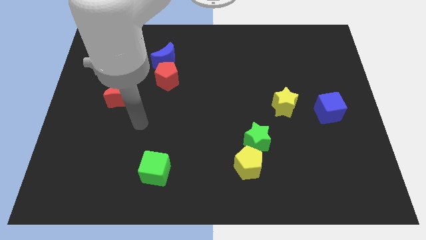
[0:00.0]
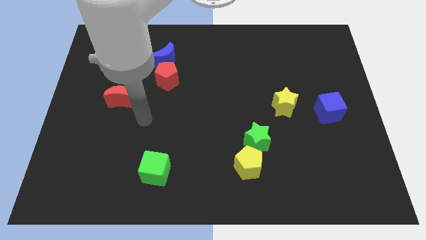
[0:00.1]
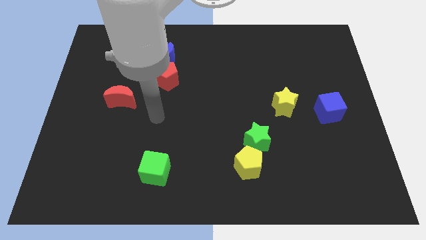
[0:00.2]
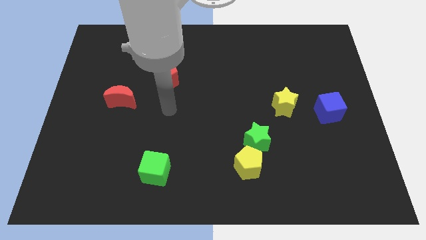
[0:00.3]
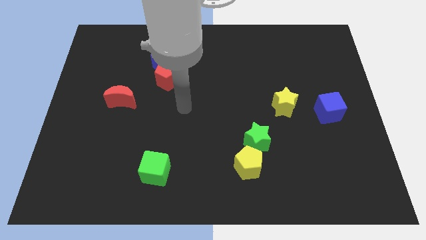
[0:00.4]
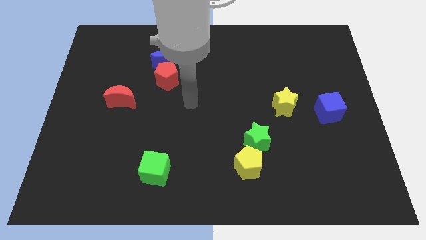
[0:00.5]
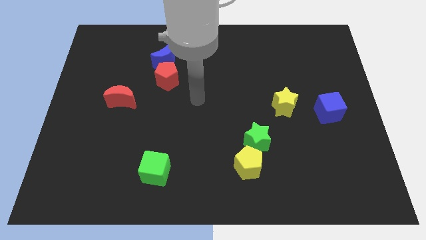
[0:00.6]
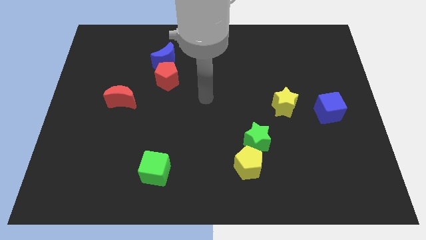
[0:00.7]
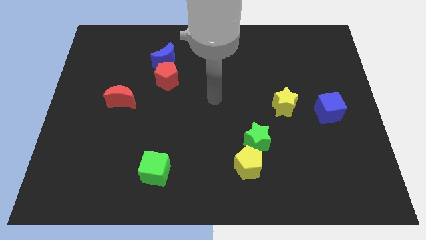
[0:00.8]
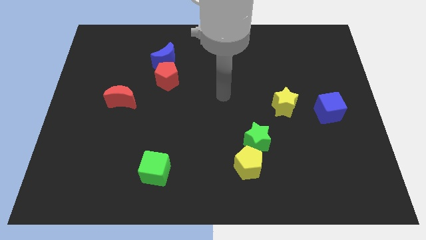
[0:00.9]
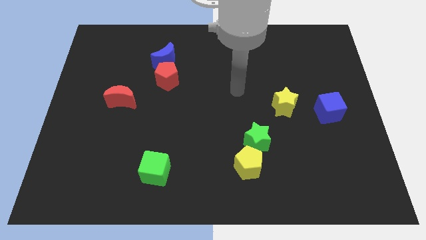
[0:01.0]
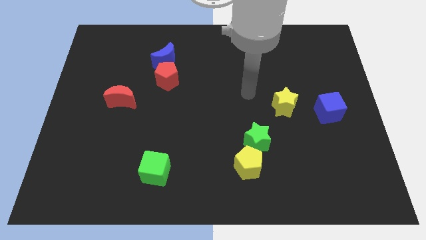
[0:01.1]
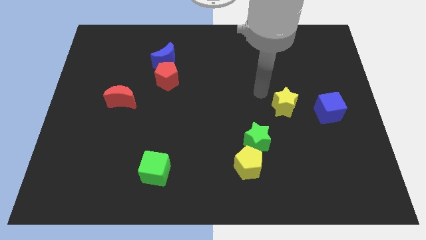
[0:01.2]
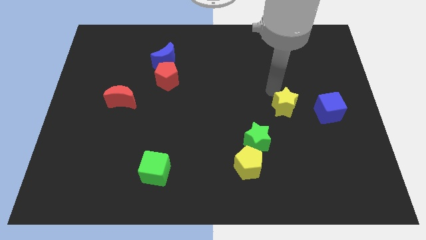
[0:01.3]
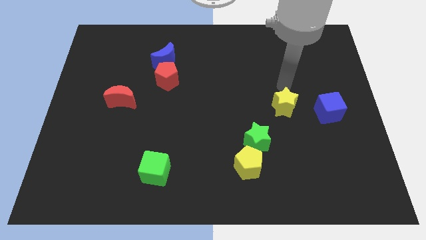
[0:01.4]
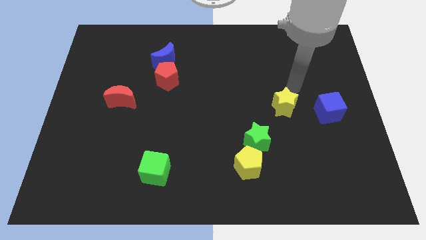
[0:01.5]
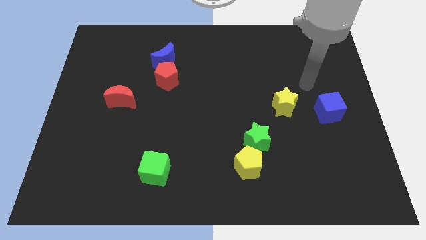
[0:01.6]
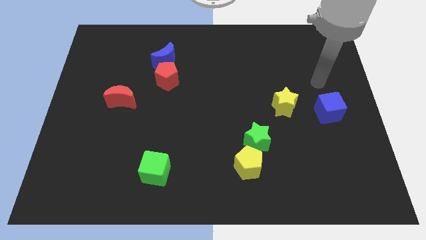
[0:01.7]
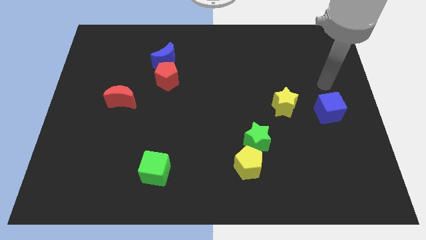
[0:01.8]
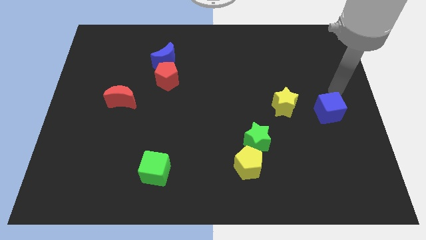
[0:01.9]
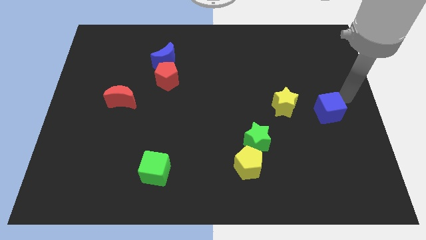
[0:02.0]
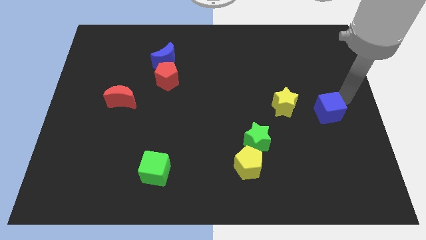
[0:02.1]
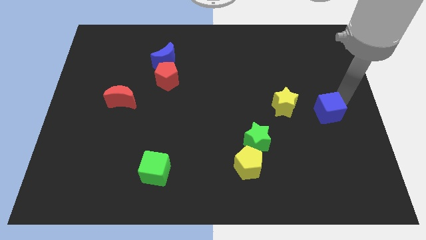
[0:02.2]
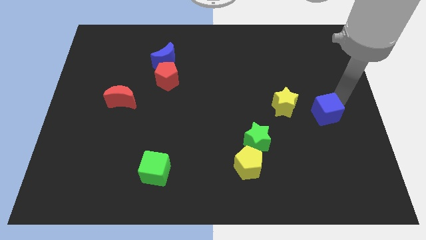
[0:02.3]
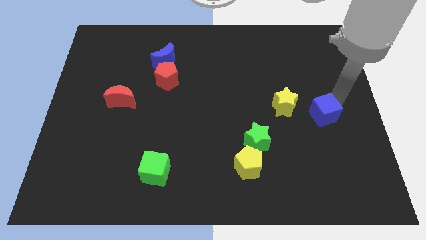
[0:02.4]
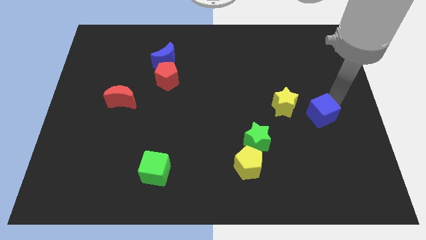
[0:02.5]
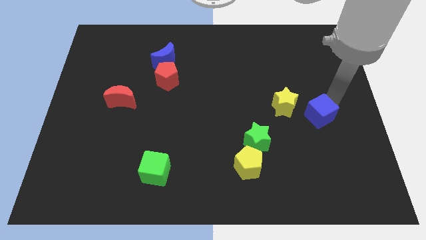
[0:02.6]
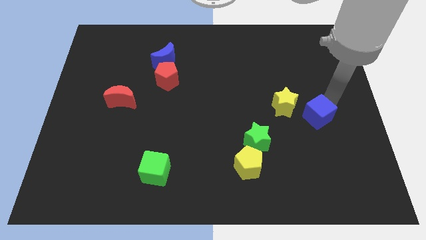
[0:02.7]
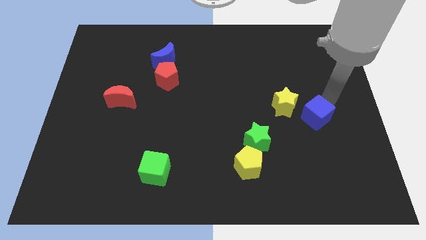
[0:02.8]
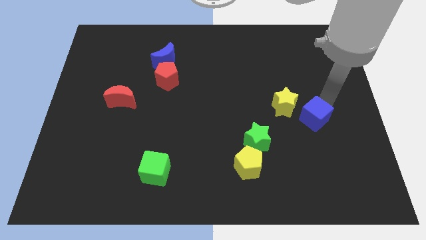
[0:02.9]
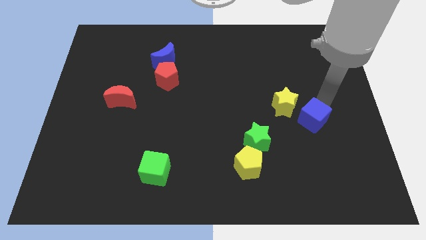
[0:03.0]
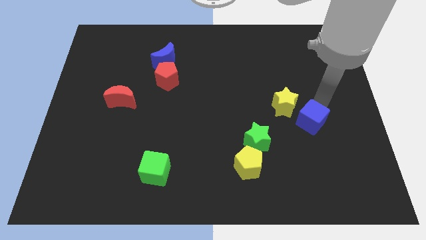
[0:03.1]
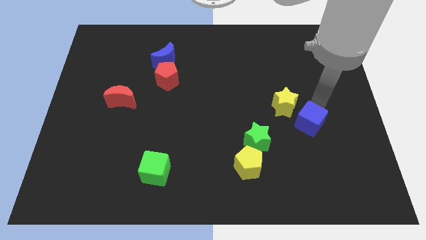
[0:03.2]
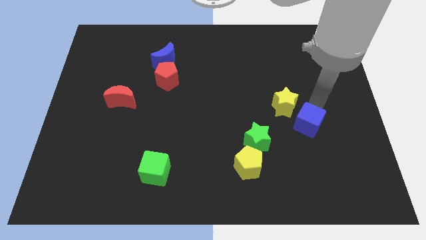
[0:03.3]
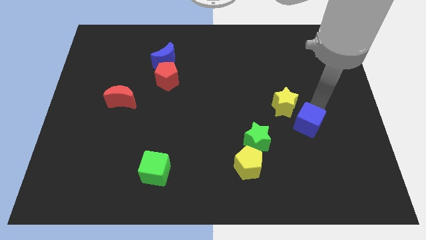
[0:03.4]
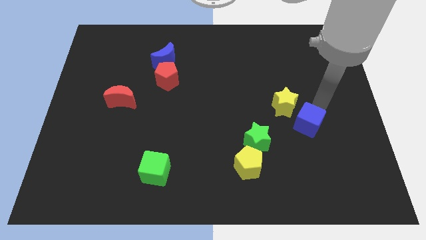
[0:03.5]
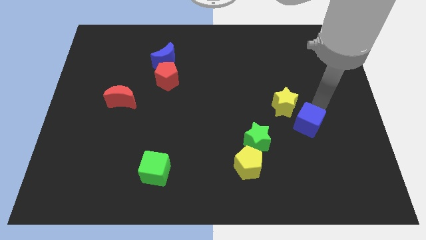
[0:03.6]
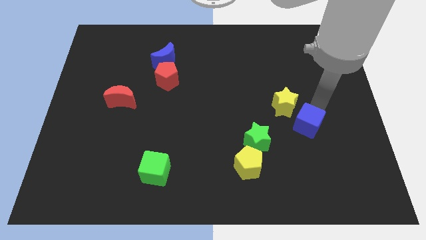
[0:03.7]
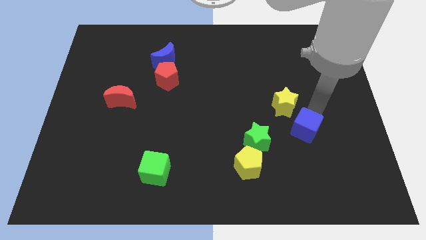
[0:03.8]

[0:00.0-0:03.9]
move the blue cube downwards and to the left diagonally slightly

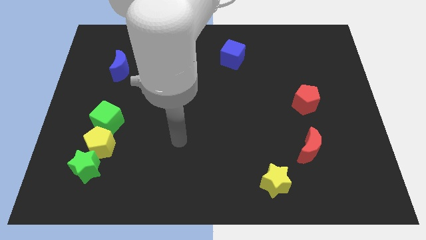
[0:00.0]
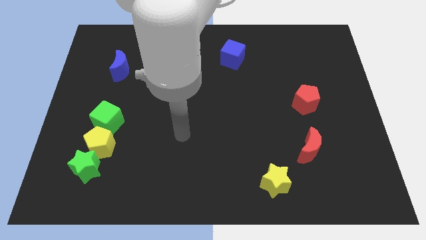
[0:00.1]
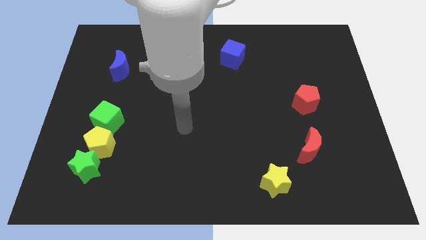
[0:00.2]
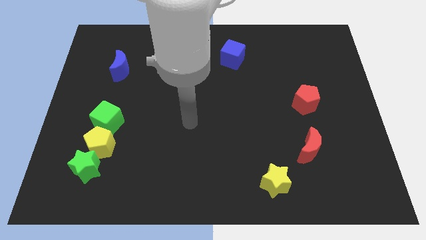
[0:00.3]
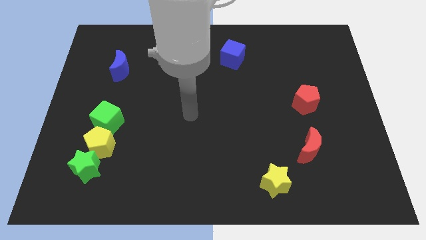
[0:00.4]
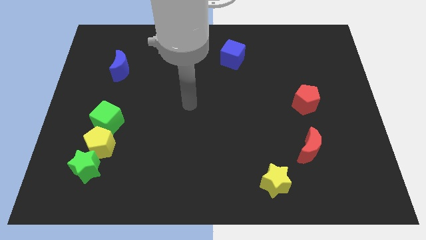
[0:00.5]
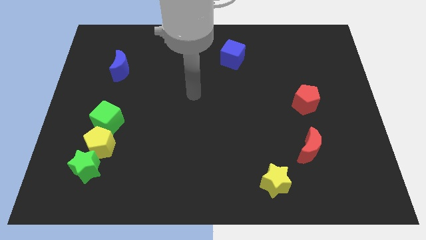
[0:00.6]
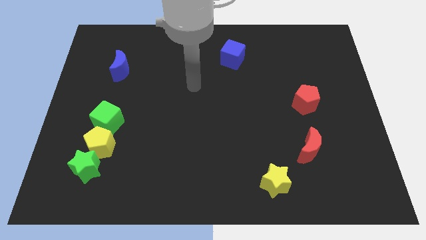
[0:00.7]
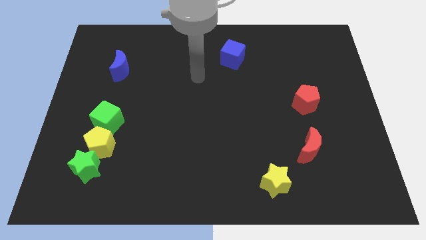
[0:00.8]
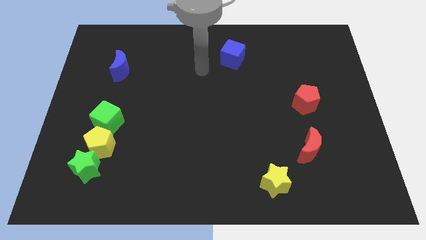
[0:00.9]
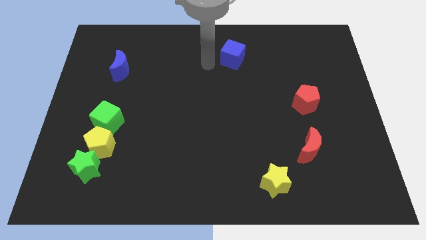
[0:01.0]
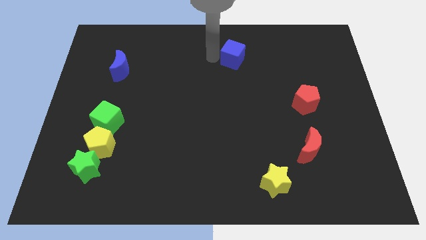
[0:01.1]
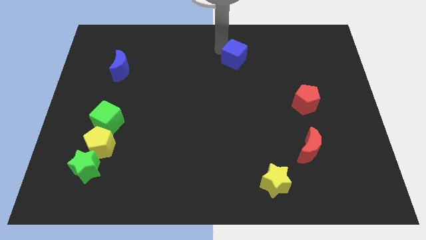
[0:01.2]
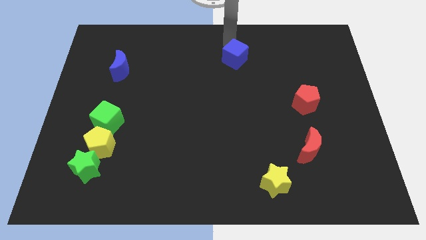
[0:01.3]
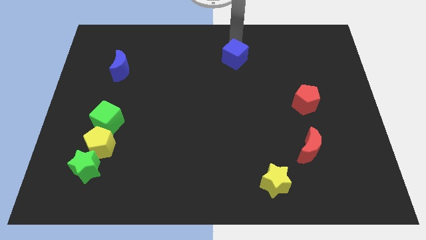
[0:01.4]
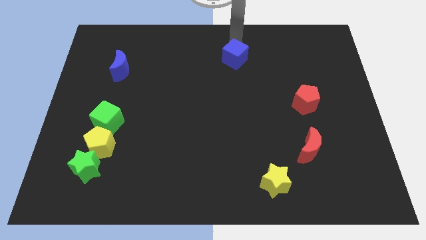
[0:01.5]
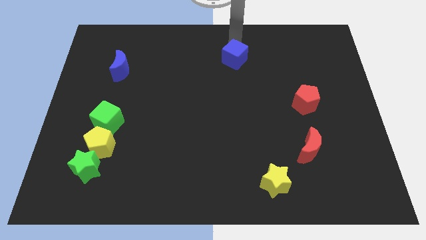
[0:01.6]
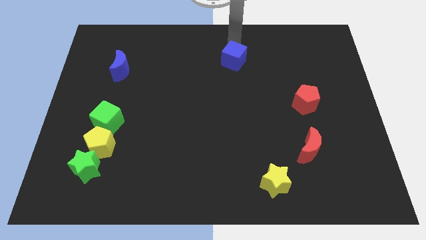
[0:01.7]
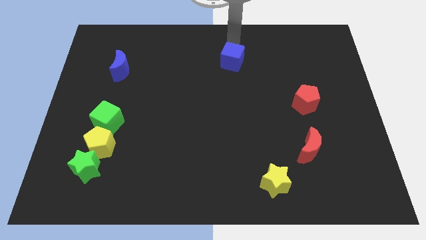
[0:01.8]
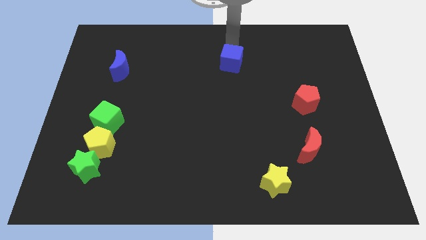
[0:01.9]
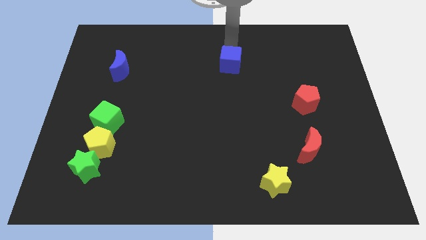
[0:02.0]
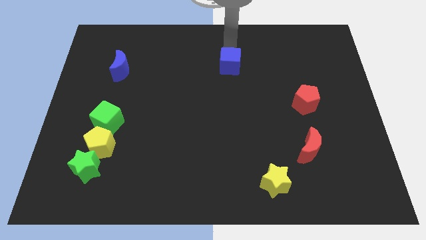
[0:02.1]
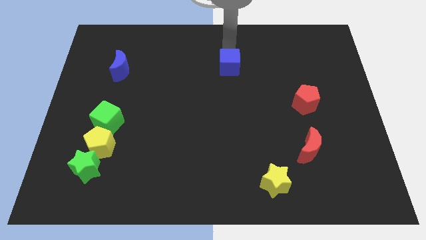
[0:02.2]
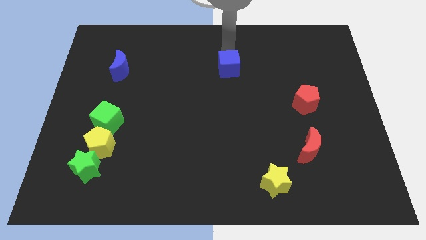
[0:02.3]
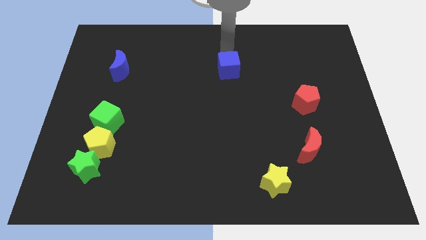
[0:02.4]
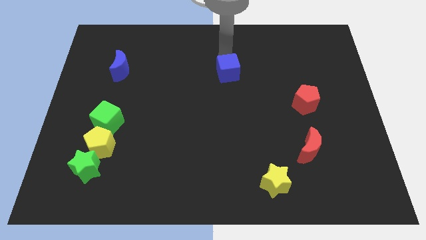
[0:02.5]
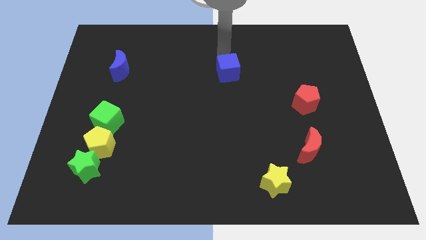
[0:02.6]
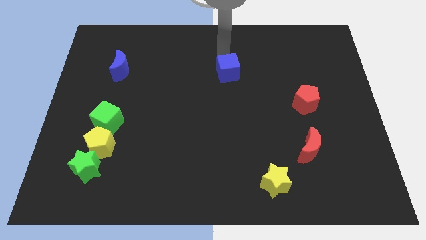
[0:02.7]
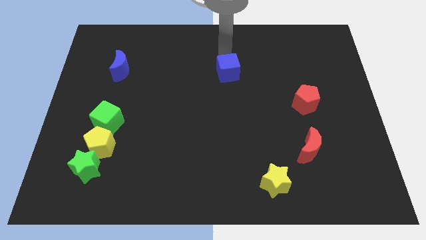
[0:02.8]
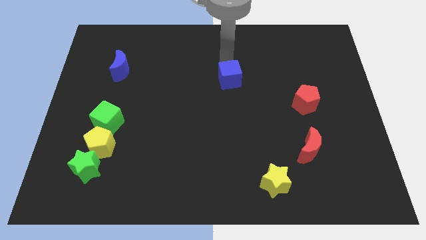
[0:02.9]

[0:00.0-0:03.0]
slightly move the blue cube downwards

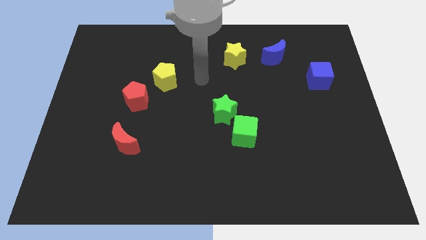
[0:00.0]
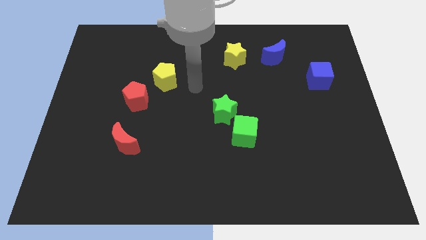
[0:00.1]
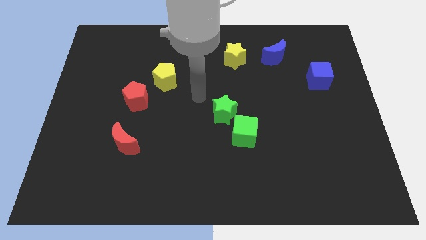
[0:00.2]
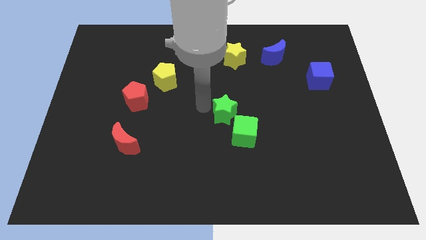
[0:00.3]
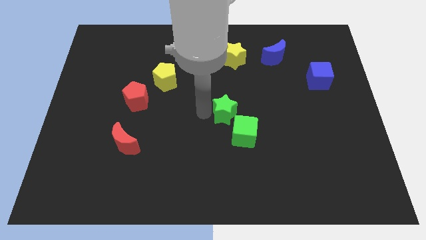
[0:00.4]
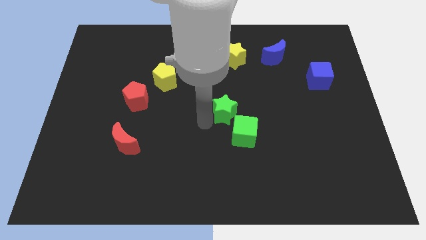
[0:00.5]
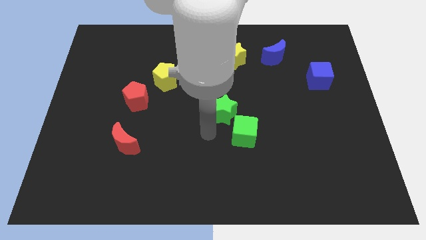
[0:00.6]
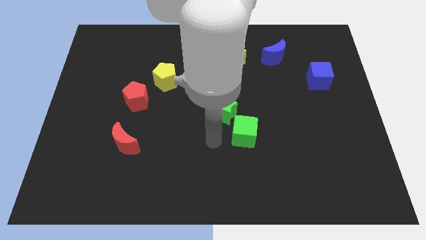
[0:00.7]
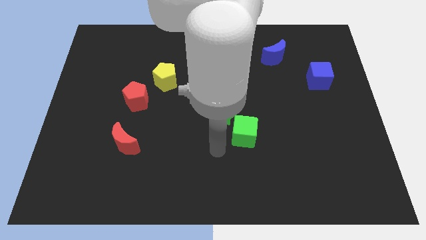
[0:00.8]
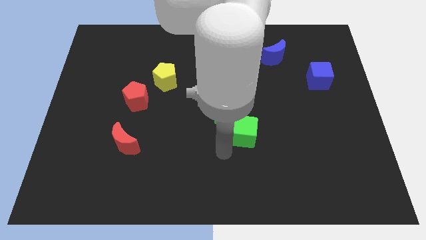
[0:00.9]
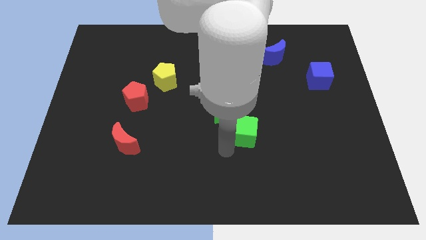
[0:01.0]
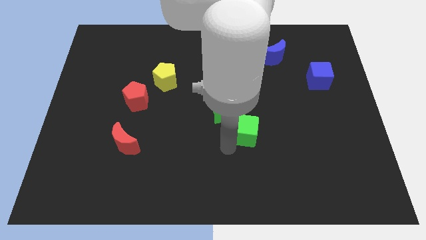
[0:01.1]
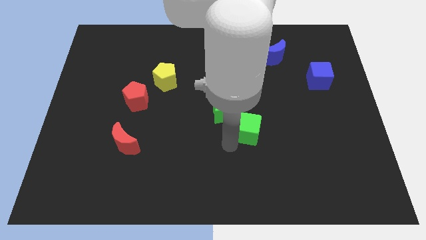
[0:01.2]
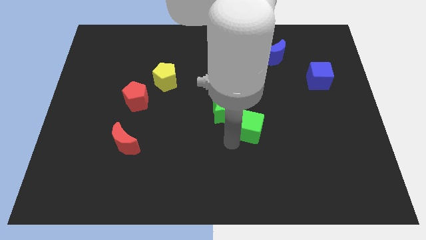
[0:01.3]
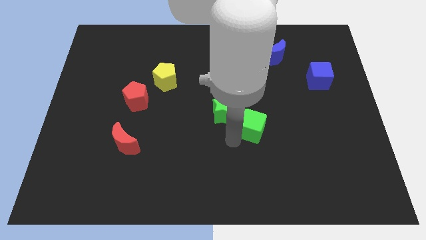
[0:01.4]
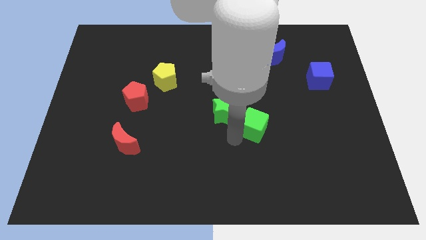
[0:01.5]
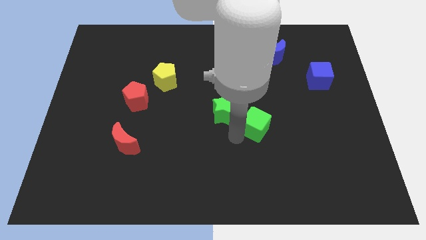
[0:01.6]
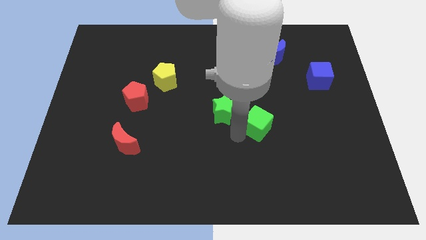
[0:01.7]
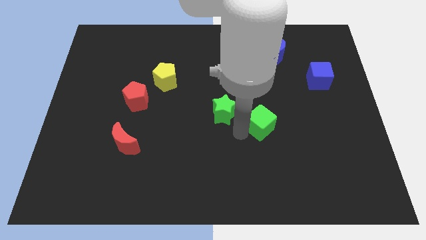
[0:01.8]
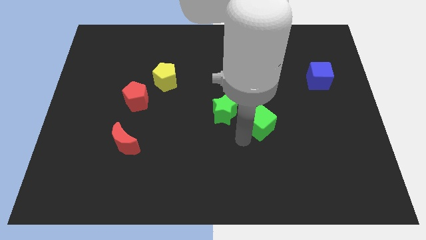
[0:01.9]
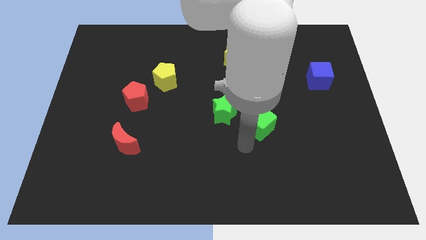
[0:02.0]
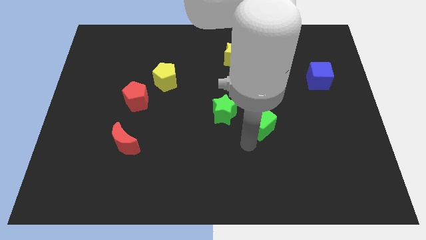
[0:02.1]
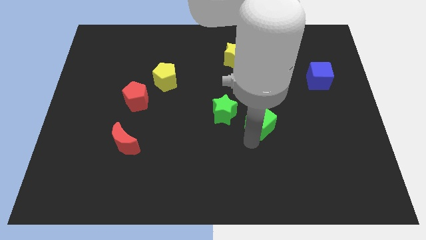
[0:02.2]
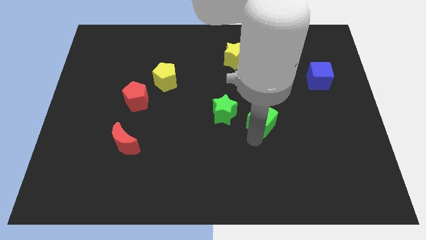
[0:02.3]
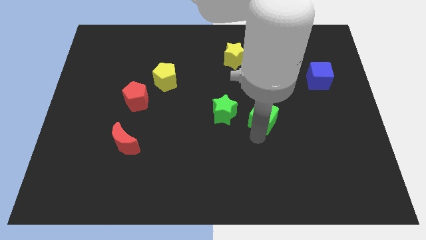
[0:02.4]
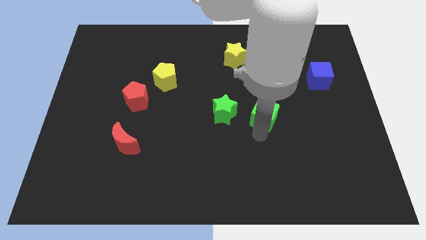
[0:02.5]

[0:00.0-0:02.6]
push the green cube up and then to the right a little
